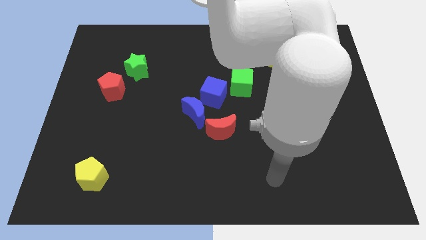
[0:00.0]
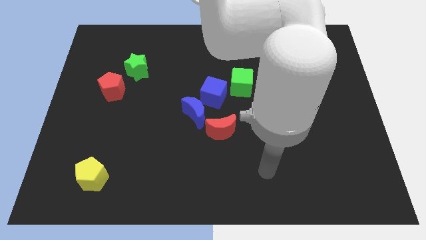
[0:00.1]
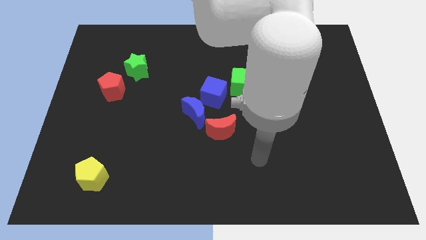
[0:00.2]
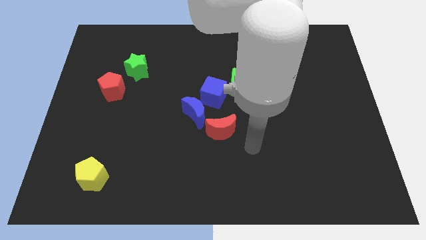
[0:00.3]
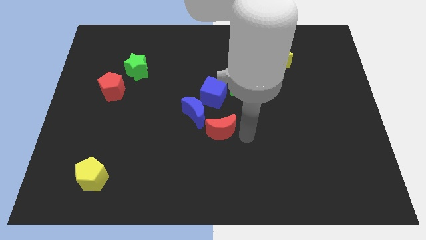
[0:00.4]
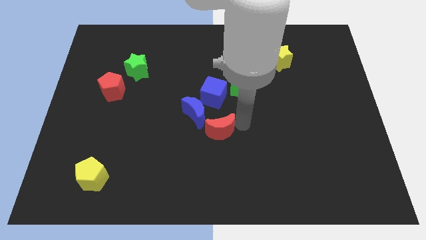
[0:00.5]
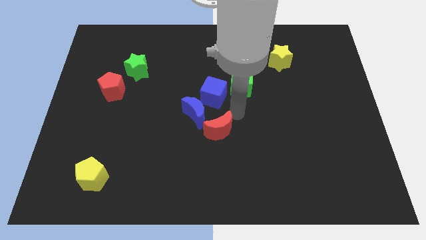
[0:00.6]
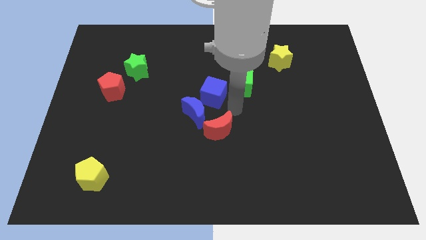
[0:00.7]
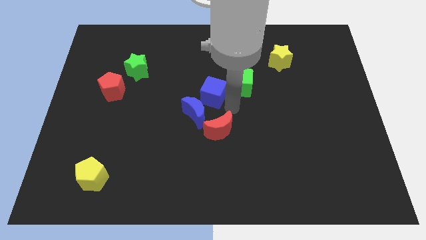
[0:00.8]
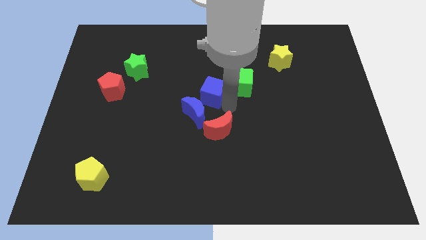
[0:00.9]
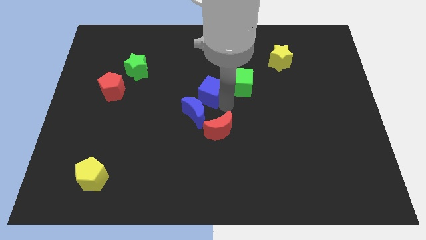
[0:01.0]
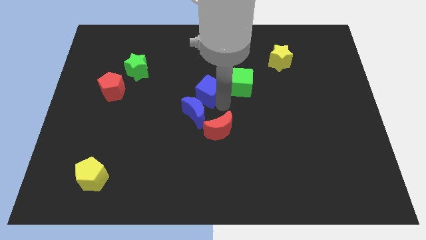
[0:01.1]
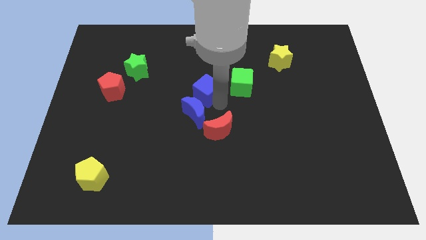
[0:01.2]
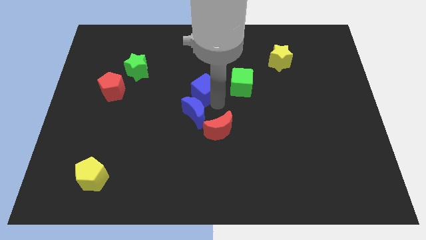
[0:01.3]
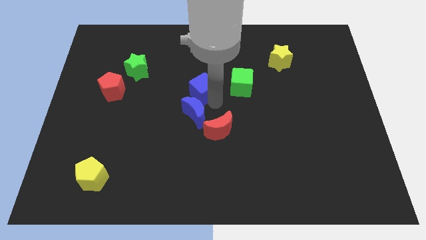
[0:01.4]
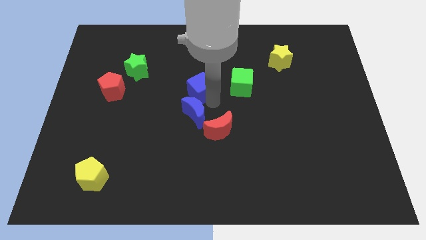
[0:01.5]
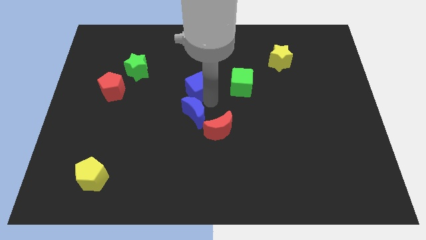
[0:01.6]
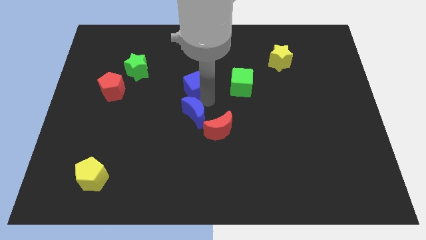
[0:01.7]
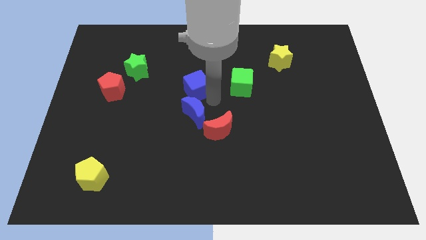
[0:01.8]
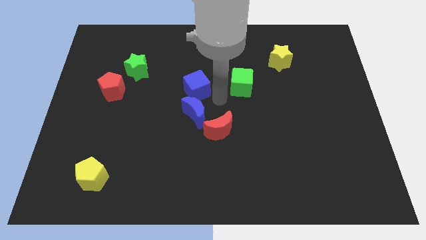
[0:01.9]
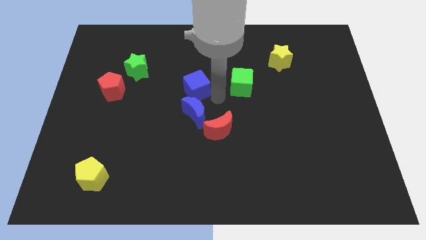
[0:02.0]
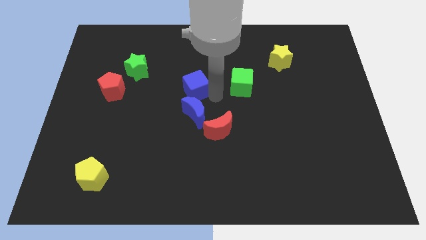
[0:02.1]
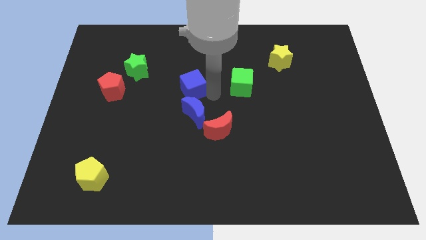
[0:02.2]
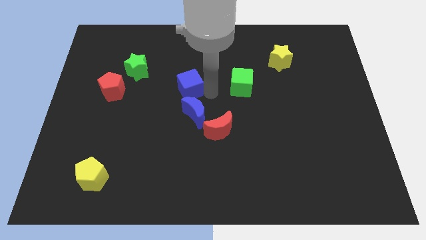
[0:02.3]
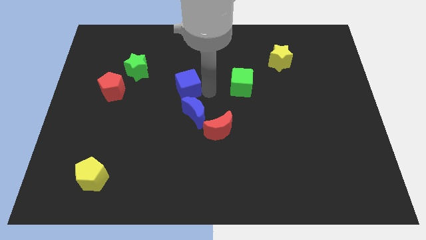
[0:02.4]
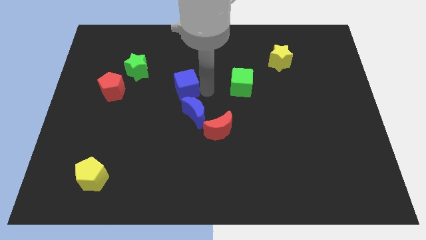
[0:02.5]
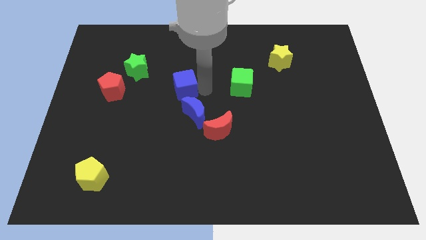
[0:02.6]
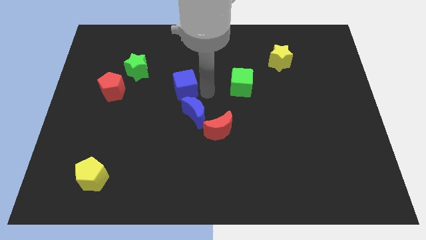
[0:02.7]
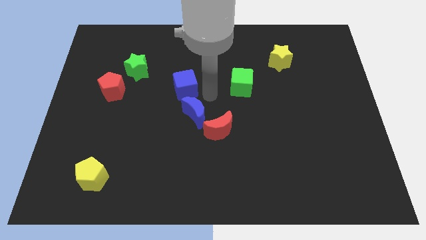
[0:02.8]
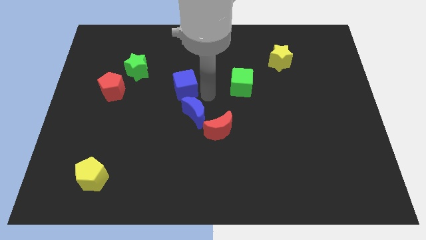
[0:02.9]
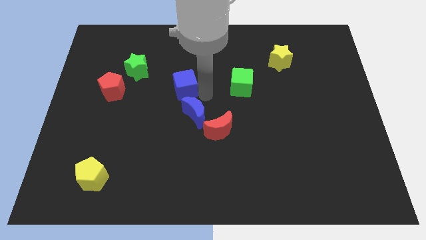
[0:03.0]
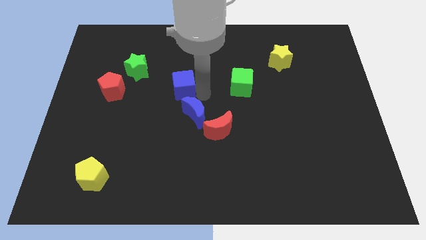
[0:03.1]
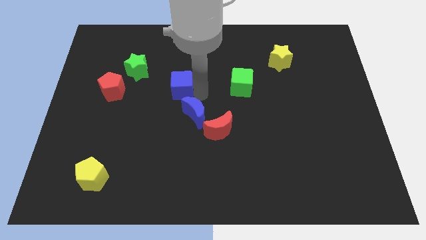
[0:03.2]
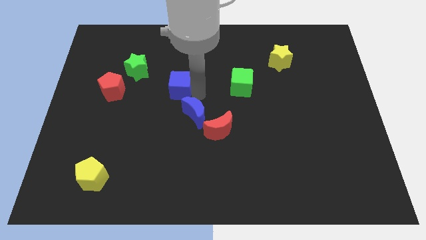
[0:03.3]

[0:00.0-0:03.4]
move the blue cube away from the blue moon and green cube

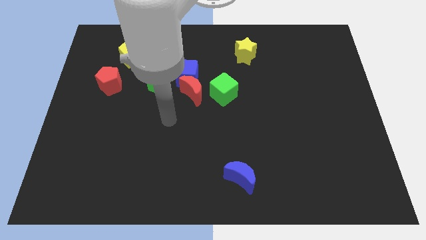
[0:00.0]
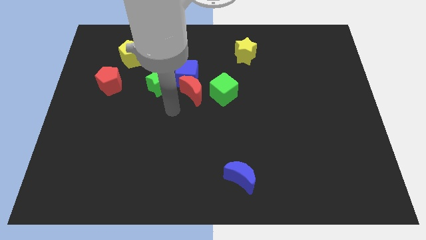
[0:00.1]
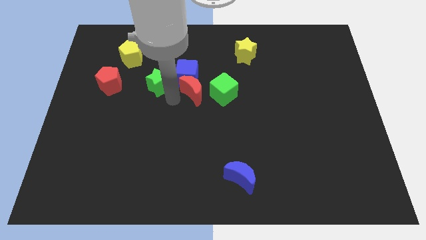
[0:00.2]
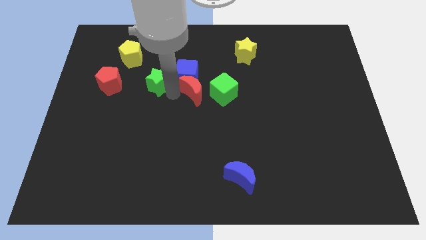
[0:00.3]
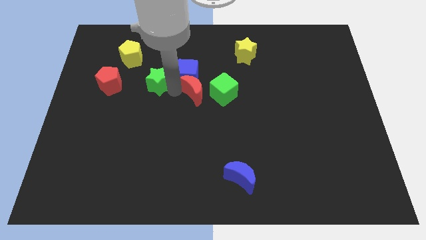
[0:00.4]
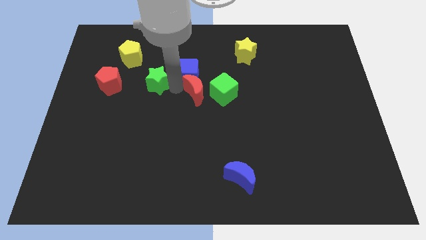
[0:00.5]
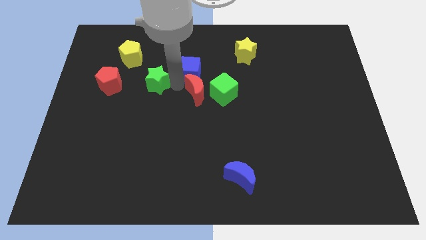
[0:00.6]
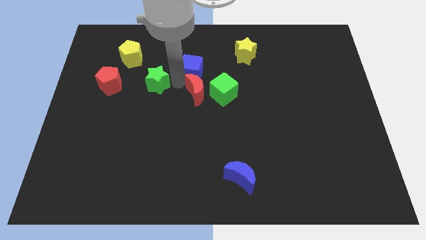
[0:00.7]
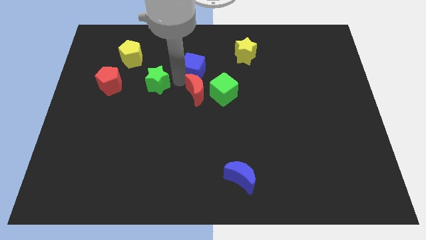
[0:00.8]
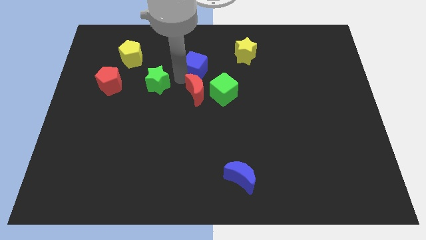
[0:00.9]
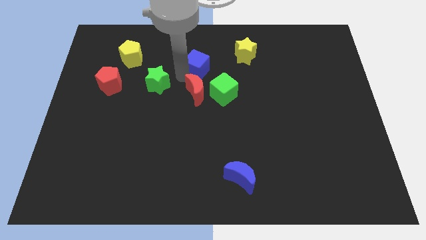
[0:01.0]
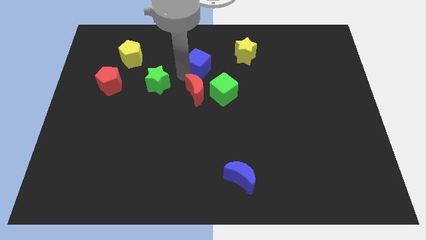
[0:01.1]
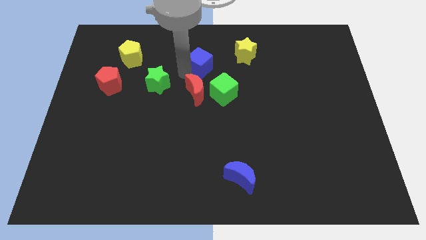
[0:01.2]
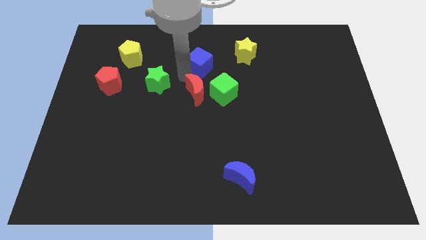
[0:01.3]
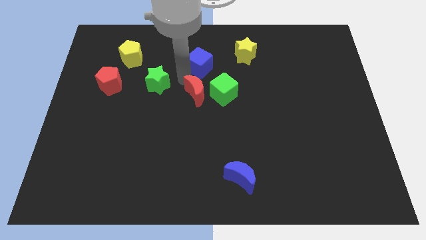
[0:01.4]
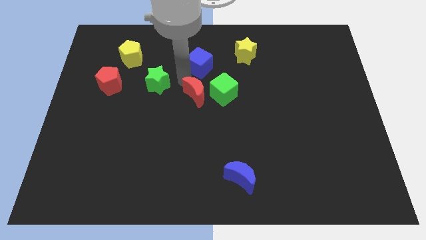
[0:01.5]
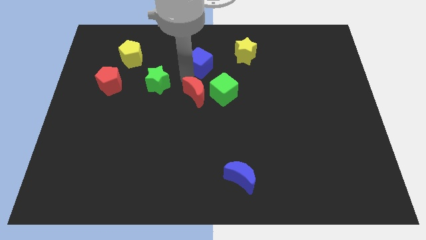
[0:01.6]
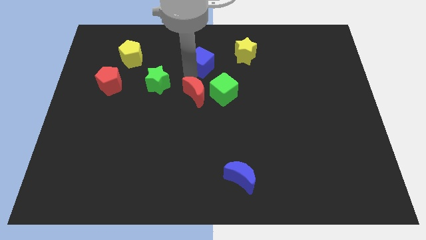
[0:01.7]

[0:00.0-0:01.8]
separate the blue cube from the red moon and green star

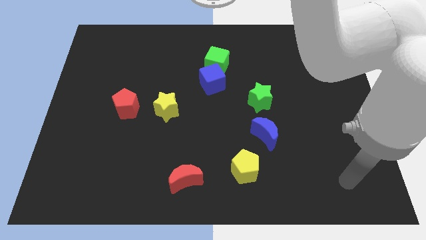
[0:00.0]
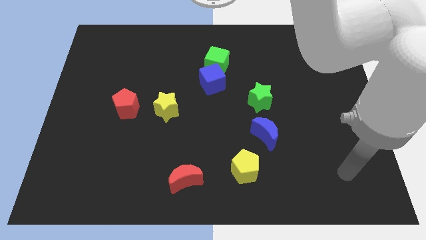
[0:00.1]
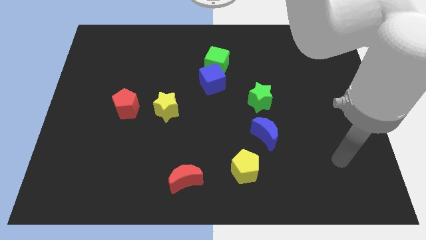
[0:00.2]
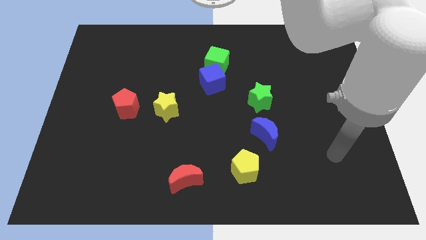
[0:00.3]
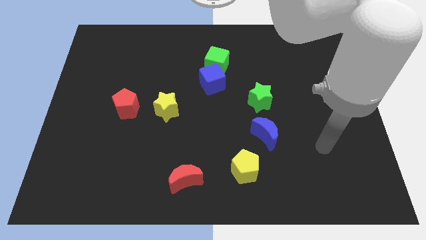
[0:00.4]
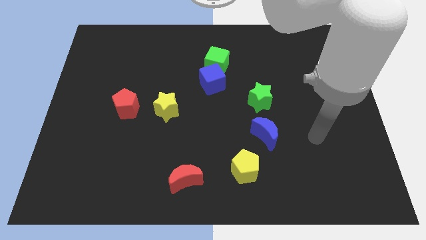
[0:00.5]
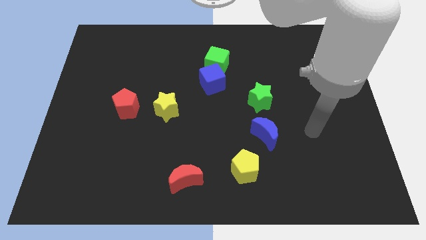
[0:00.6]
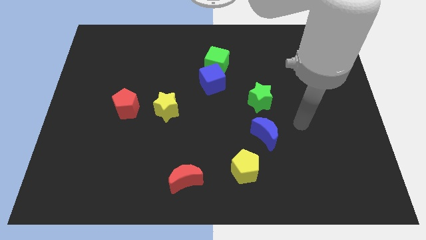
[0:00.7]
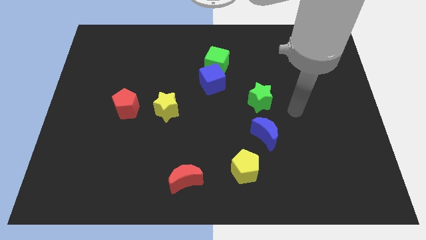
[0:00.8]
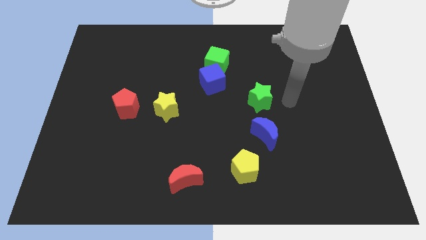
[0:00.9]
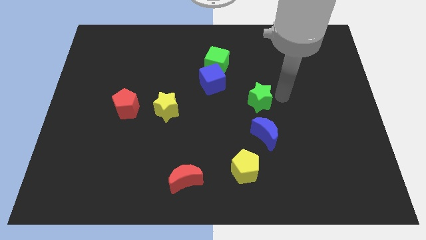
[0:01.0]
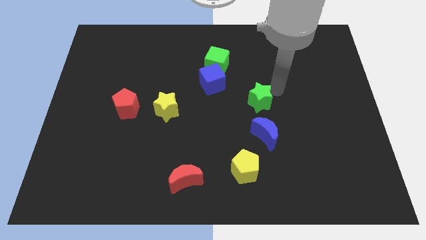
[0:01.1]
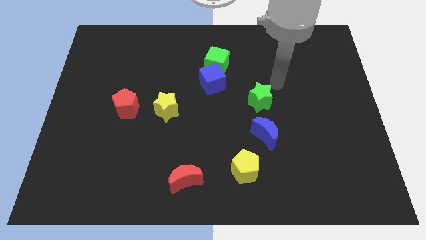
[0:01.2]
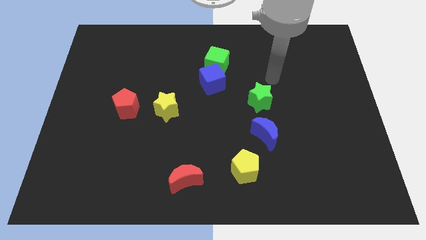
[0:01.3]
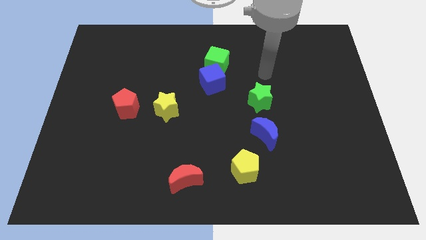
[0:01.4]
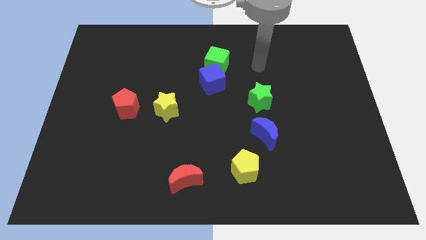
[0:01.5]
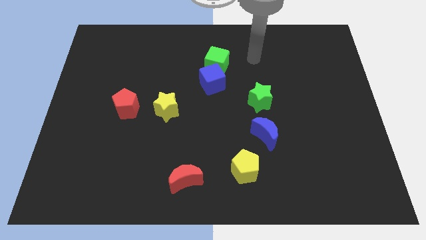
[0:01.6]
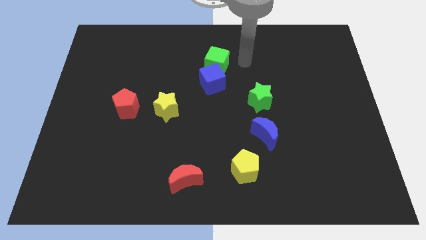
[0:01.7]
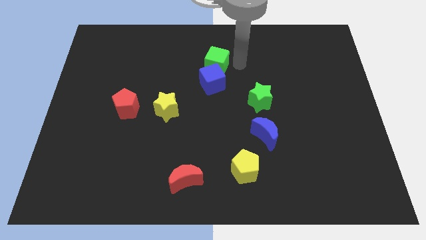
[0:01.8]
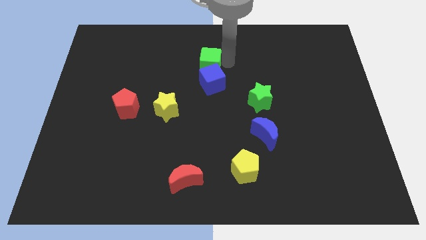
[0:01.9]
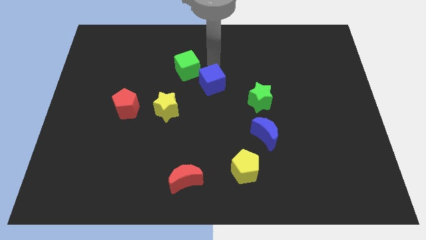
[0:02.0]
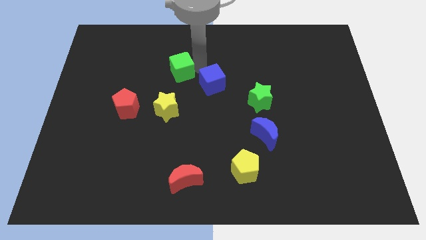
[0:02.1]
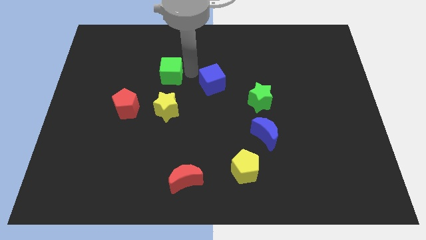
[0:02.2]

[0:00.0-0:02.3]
pull the blue cube apart from the green cube

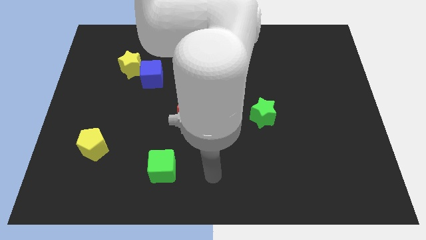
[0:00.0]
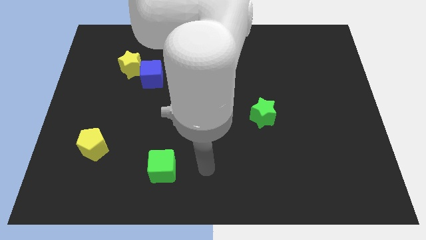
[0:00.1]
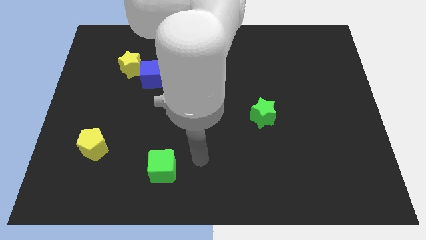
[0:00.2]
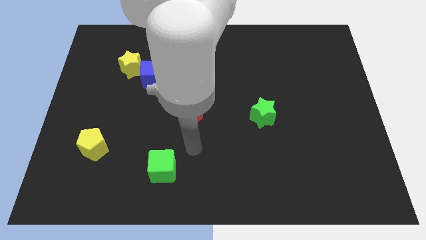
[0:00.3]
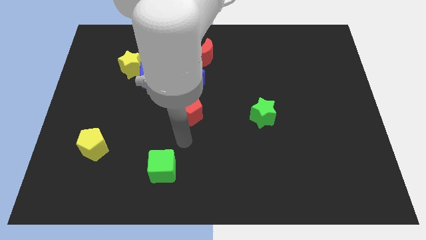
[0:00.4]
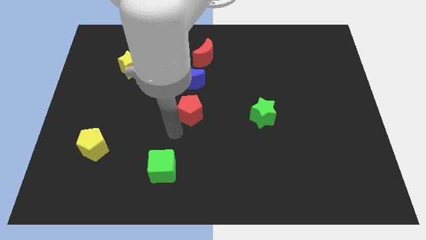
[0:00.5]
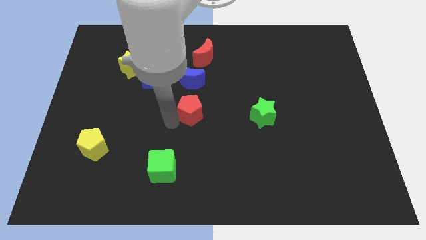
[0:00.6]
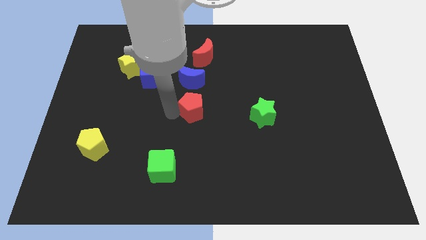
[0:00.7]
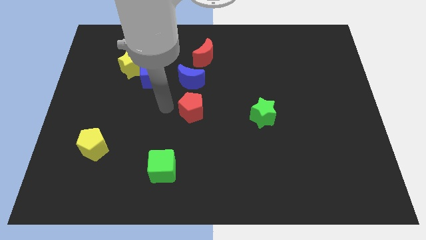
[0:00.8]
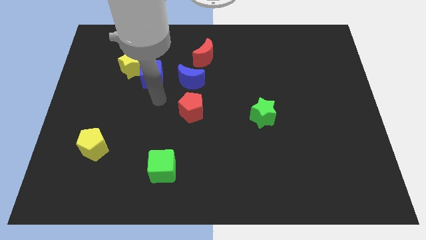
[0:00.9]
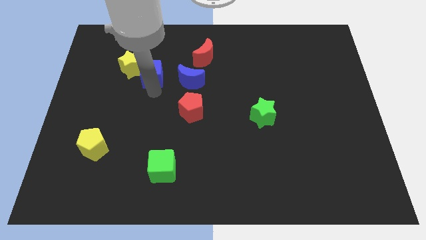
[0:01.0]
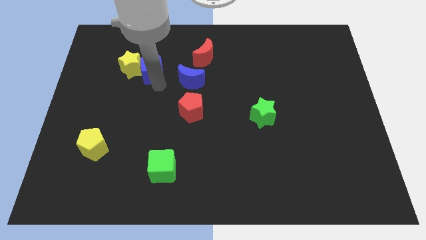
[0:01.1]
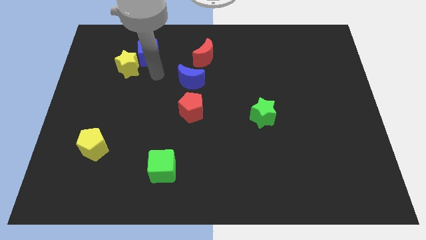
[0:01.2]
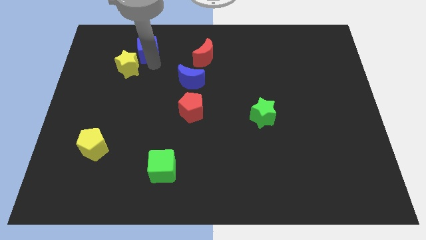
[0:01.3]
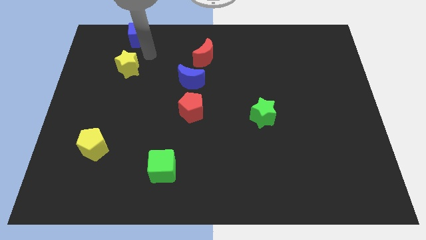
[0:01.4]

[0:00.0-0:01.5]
pull the yellow star apart from the blue cube

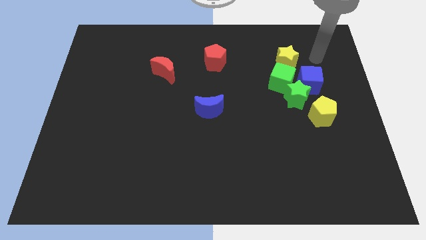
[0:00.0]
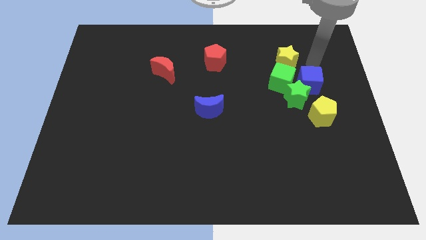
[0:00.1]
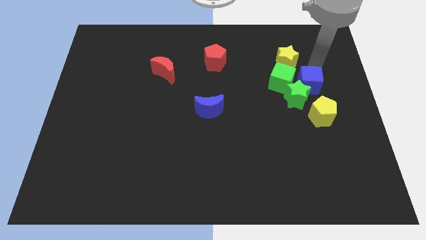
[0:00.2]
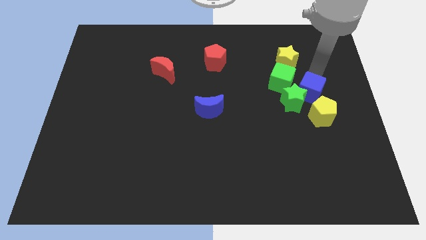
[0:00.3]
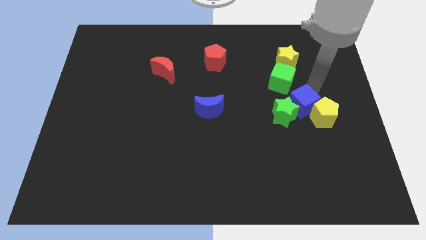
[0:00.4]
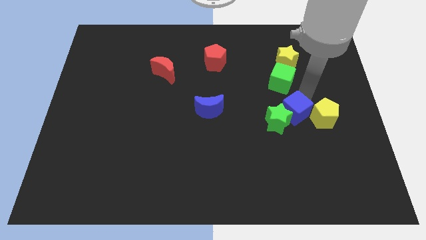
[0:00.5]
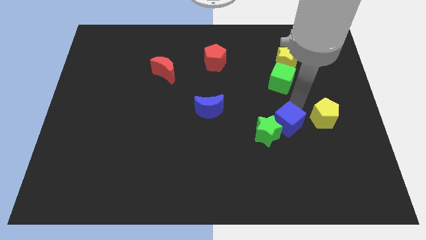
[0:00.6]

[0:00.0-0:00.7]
separate the green star from the blue cube, green cube, and yellow pentagon
